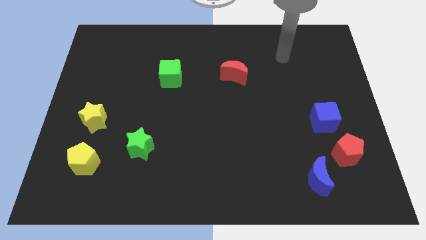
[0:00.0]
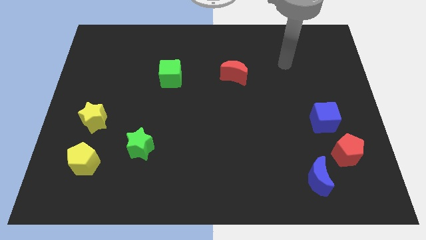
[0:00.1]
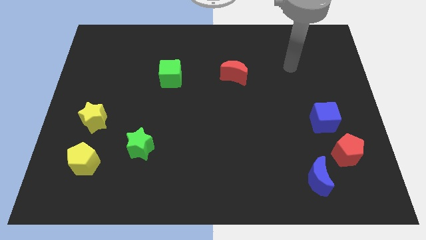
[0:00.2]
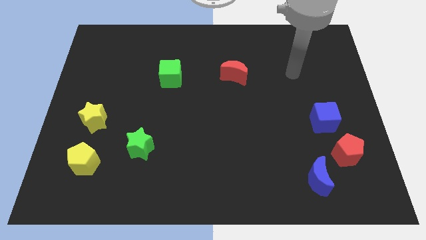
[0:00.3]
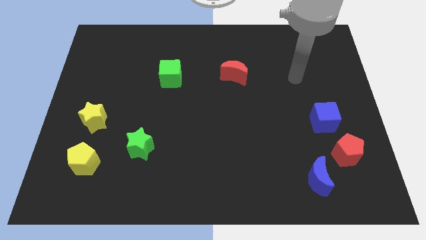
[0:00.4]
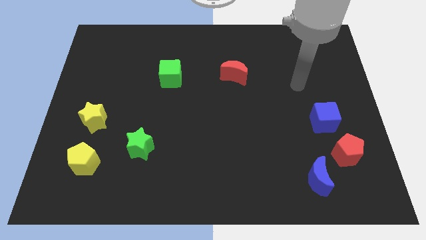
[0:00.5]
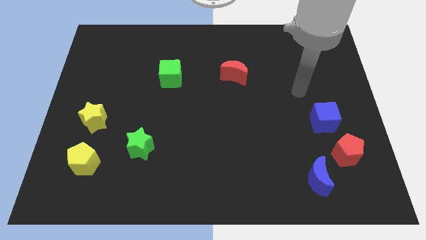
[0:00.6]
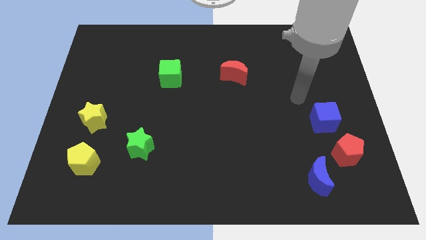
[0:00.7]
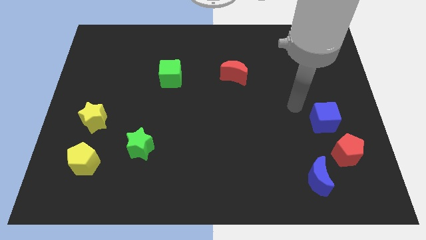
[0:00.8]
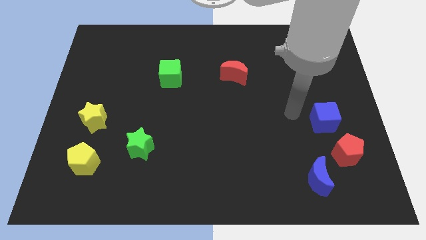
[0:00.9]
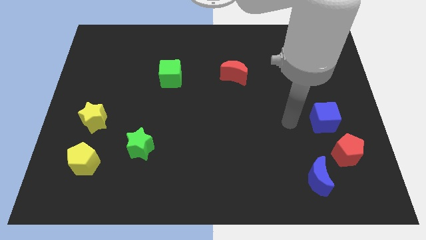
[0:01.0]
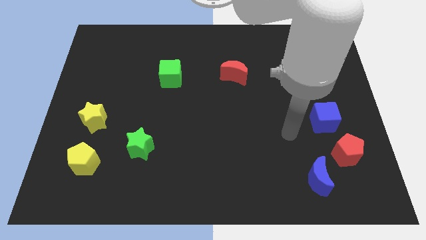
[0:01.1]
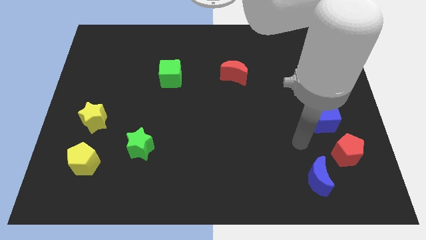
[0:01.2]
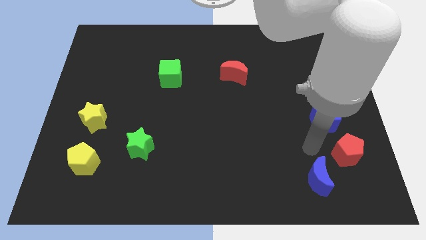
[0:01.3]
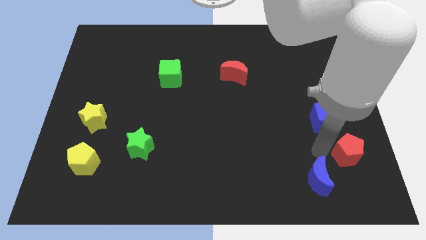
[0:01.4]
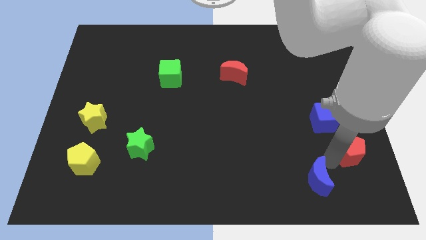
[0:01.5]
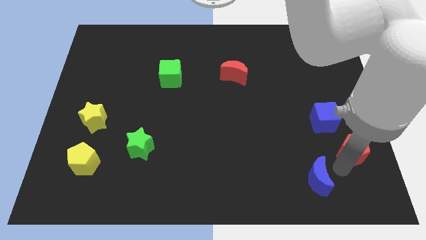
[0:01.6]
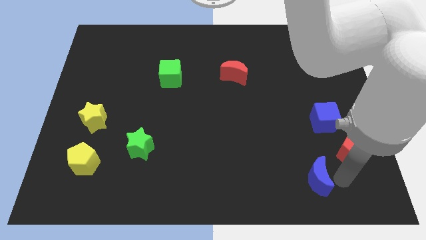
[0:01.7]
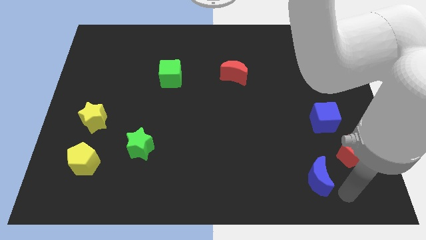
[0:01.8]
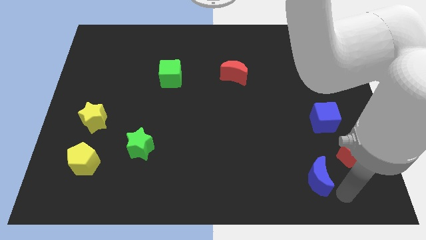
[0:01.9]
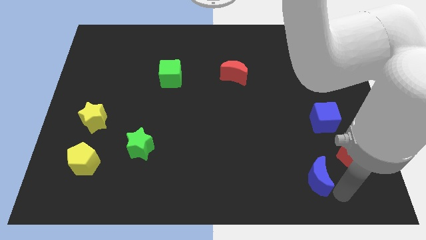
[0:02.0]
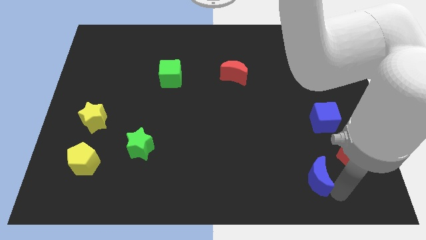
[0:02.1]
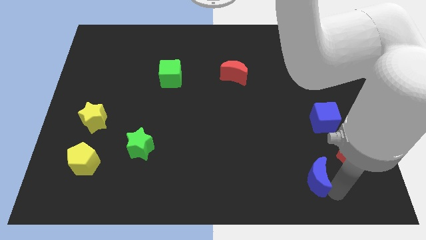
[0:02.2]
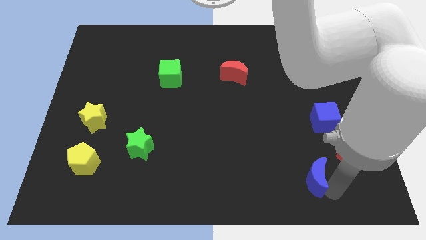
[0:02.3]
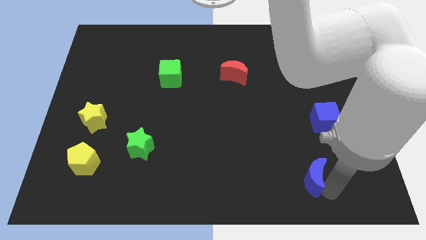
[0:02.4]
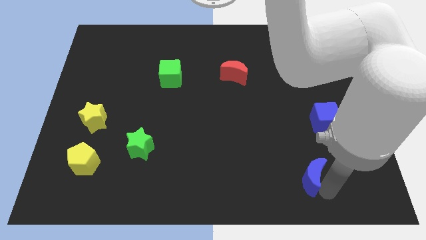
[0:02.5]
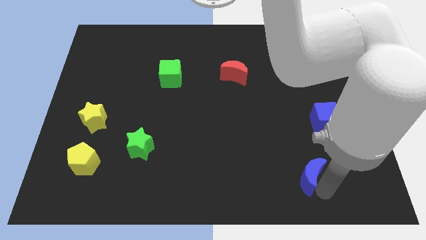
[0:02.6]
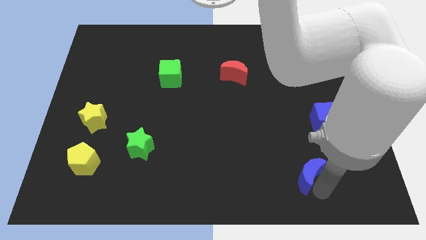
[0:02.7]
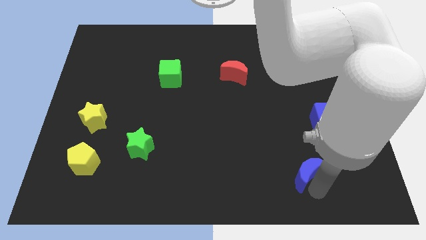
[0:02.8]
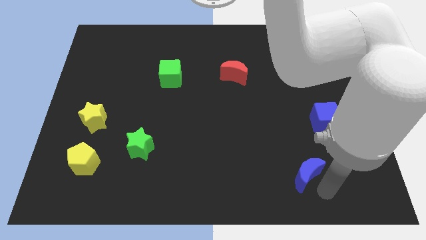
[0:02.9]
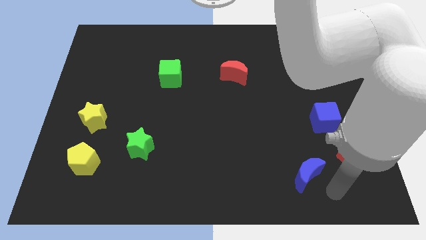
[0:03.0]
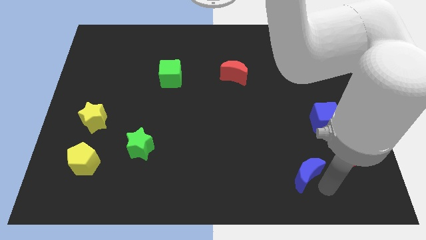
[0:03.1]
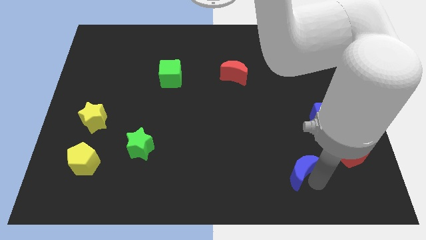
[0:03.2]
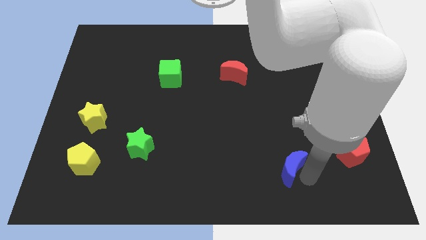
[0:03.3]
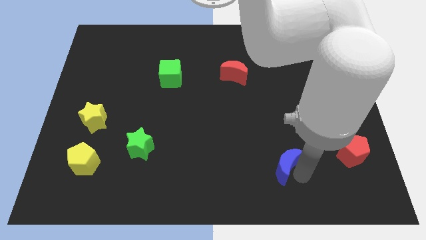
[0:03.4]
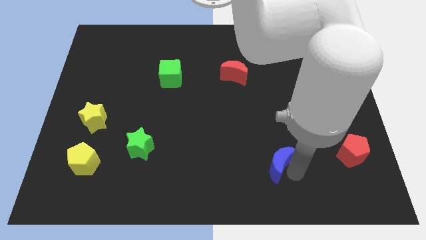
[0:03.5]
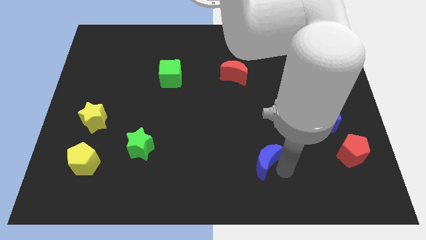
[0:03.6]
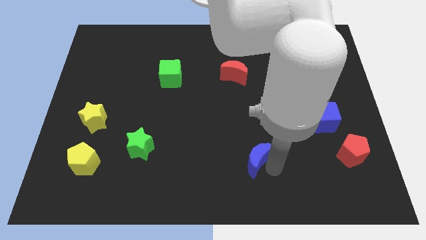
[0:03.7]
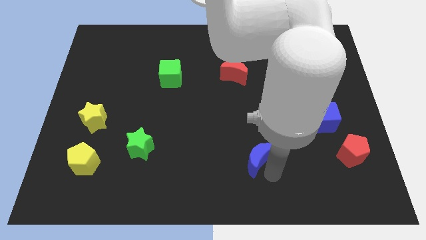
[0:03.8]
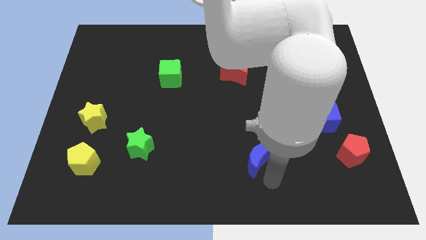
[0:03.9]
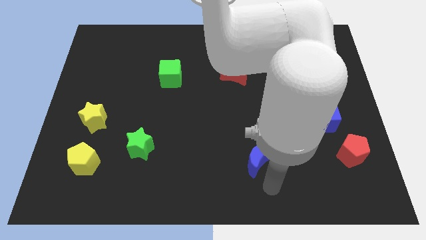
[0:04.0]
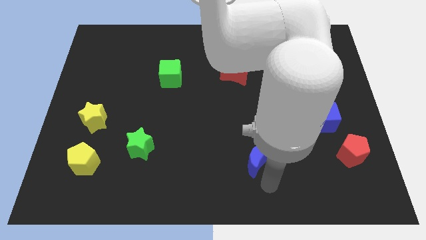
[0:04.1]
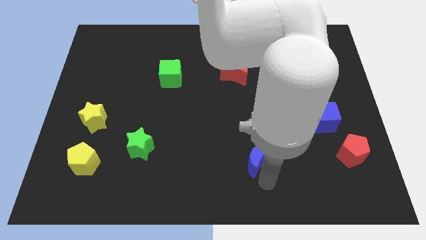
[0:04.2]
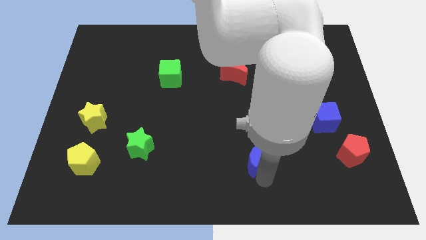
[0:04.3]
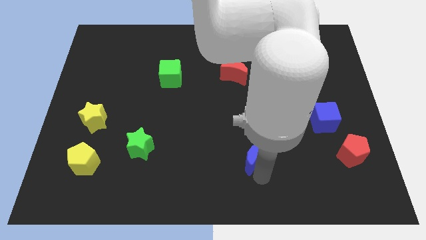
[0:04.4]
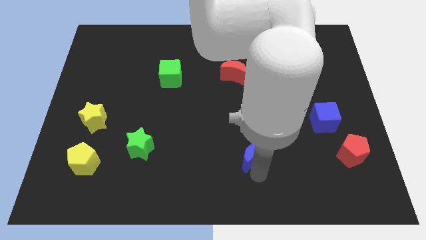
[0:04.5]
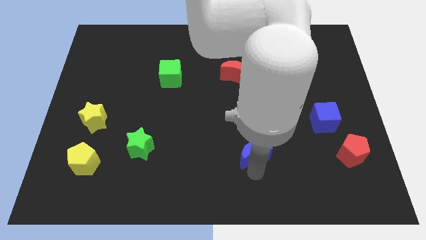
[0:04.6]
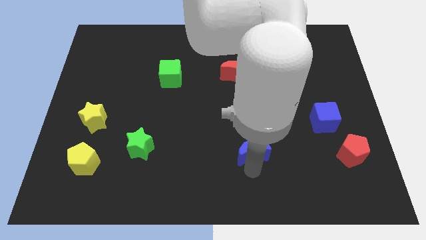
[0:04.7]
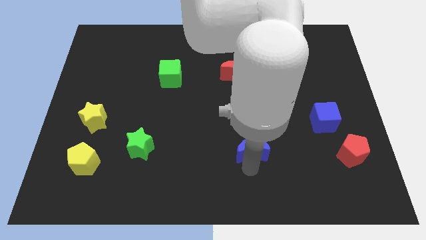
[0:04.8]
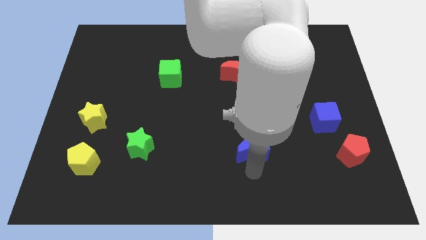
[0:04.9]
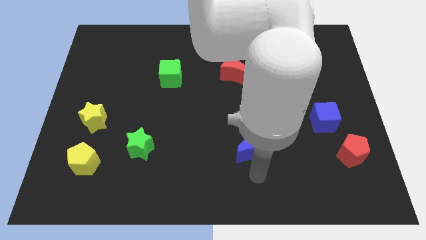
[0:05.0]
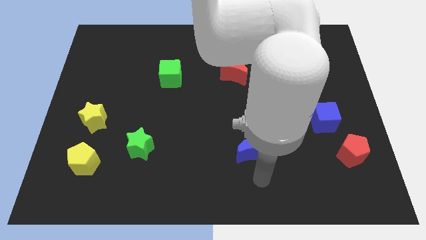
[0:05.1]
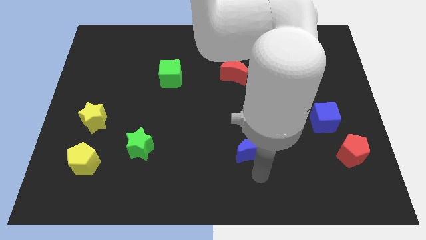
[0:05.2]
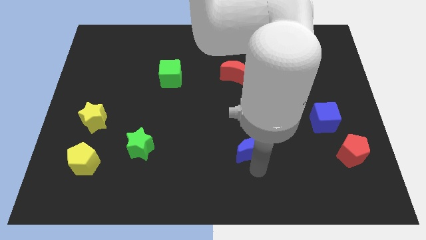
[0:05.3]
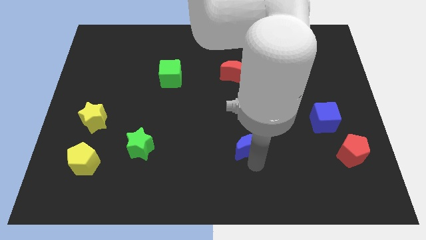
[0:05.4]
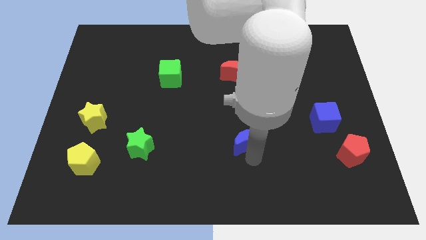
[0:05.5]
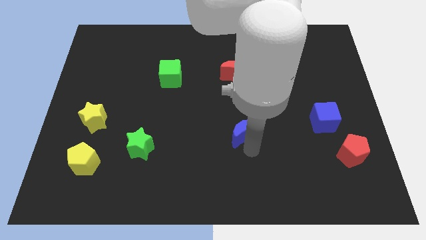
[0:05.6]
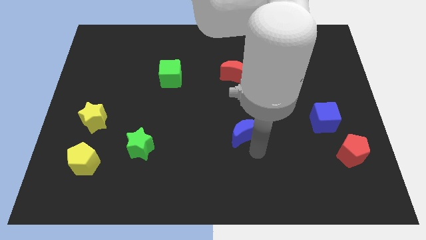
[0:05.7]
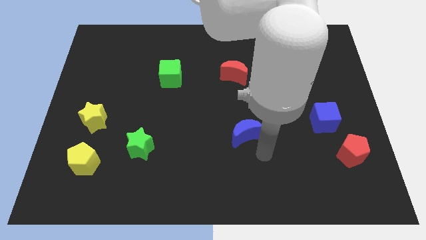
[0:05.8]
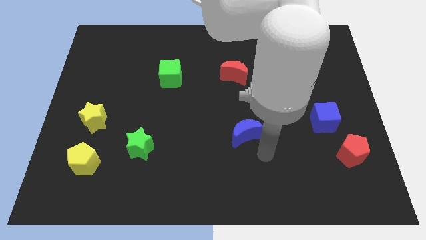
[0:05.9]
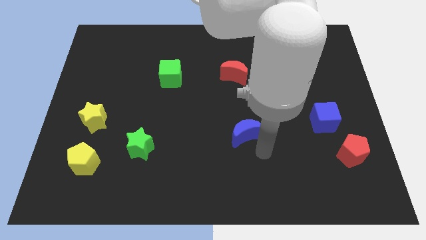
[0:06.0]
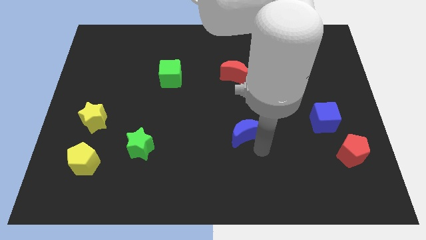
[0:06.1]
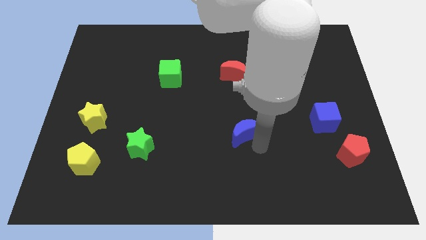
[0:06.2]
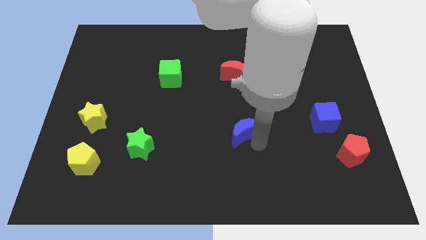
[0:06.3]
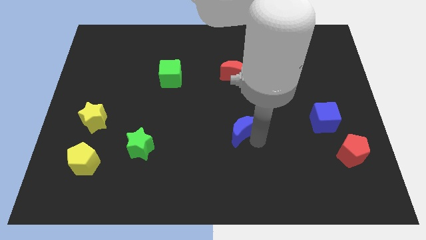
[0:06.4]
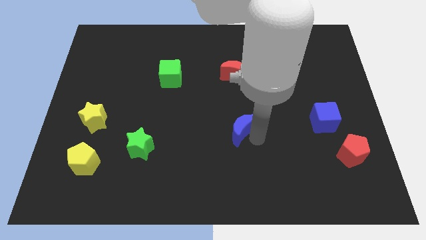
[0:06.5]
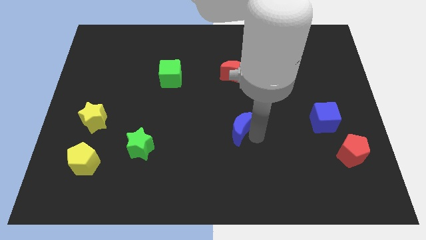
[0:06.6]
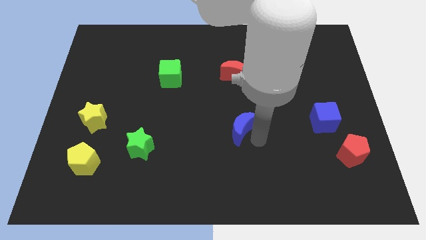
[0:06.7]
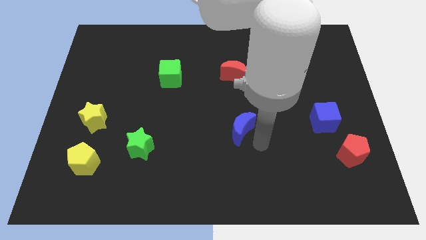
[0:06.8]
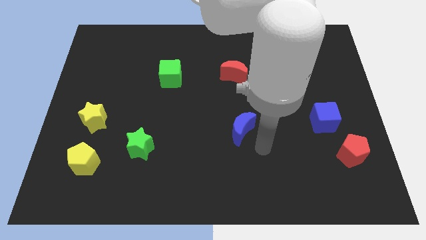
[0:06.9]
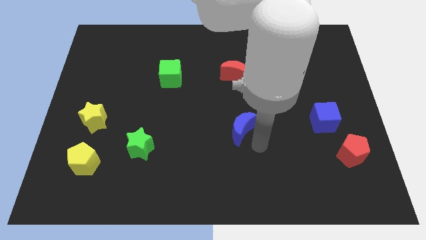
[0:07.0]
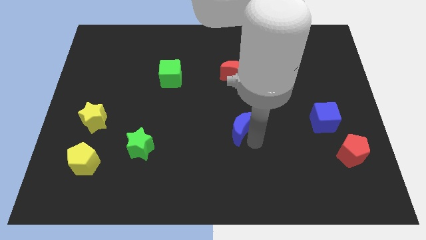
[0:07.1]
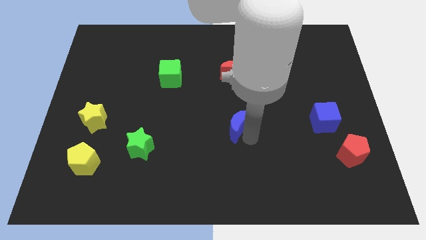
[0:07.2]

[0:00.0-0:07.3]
move the blue moon up and to the left

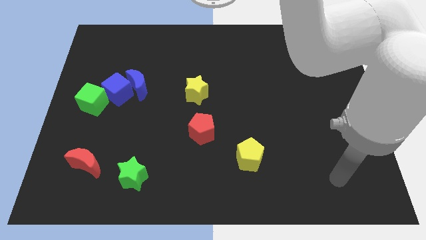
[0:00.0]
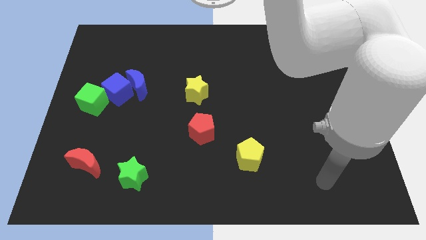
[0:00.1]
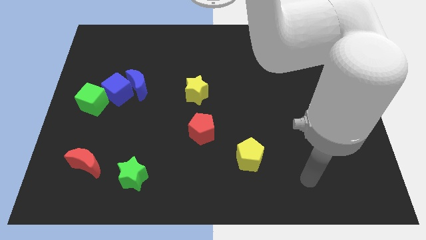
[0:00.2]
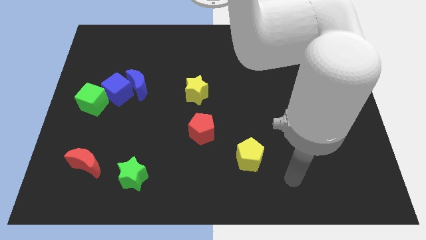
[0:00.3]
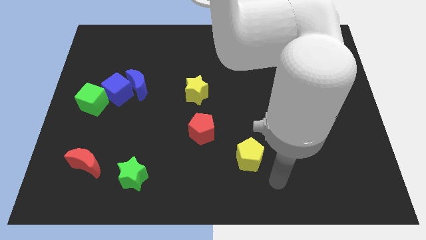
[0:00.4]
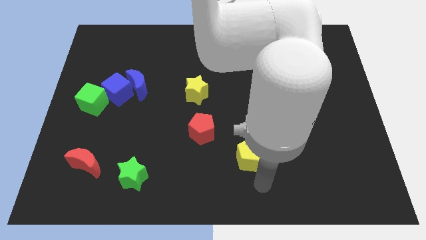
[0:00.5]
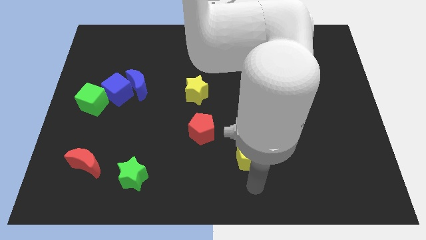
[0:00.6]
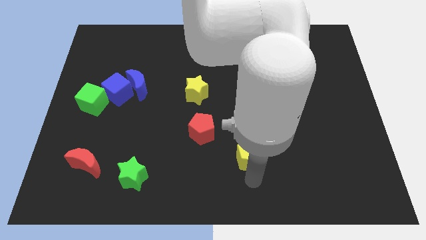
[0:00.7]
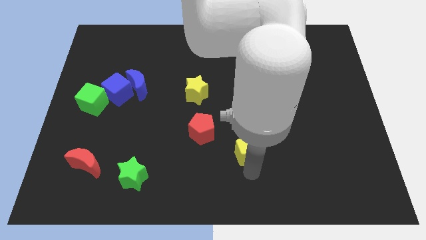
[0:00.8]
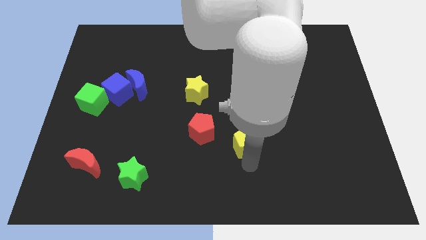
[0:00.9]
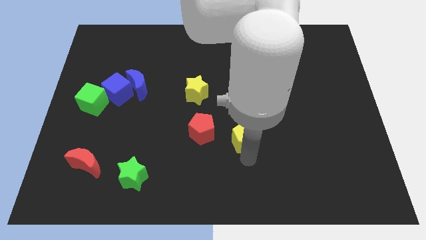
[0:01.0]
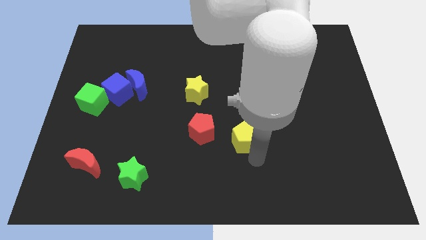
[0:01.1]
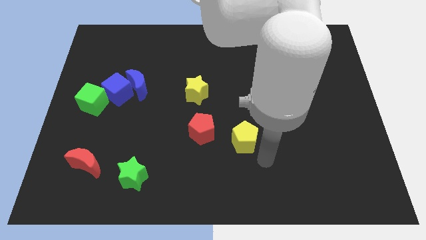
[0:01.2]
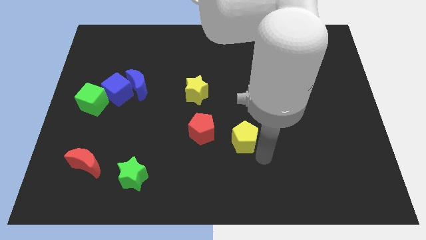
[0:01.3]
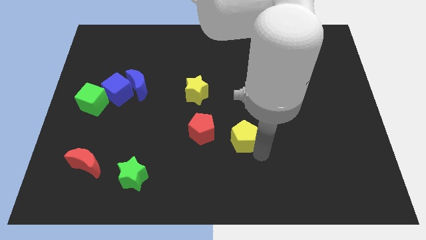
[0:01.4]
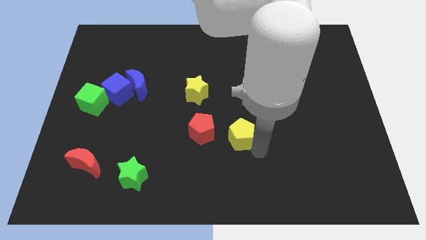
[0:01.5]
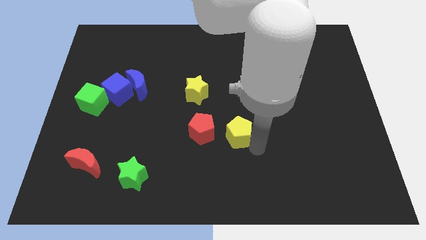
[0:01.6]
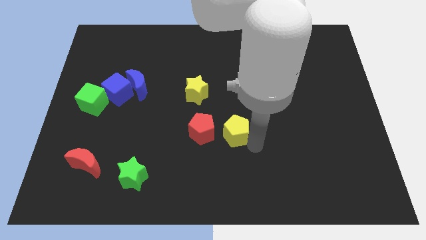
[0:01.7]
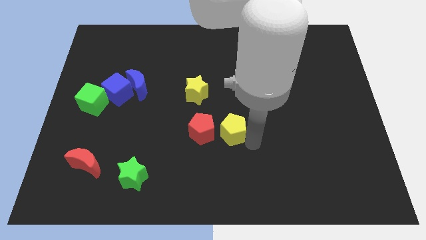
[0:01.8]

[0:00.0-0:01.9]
slightly move the yellow pentagon upwards and left
